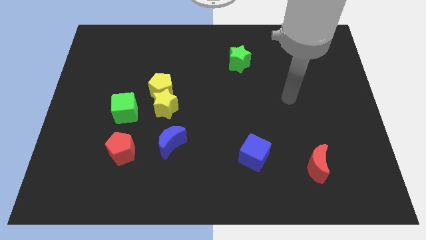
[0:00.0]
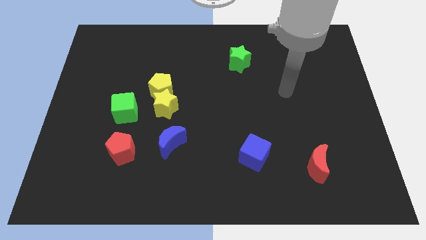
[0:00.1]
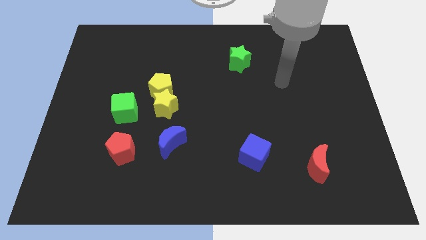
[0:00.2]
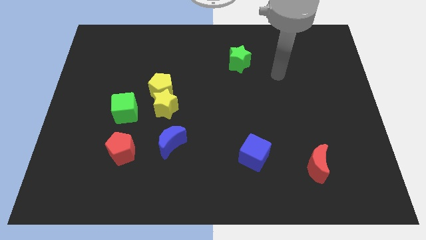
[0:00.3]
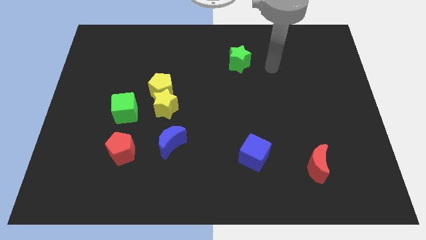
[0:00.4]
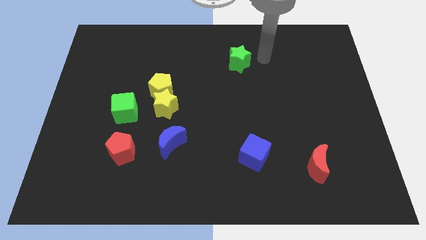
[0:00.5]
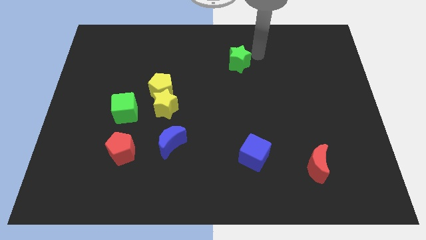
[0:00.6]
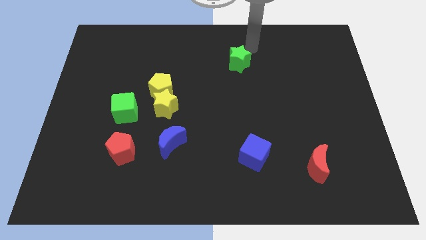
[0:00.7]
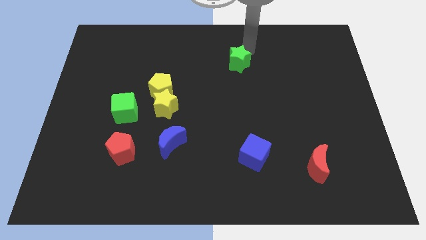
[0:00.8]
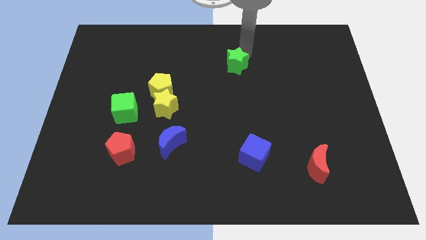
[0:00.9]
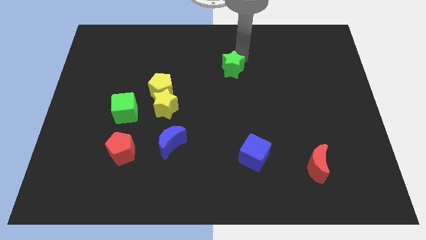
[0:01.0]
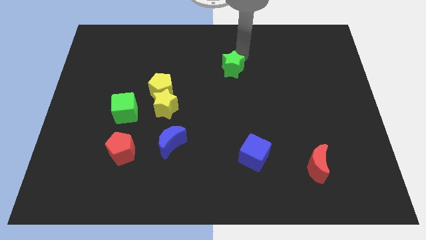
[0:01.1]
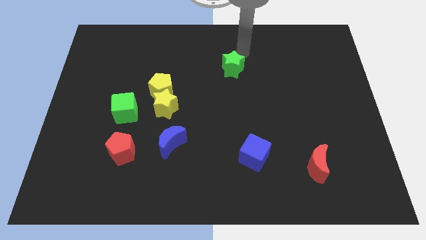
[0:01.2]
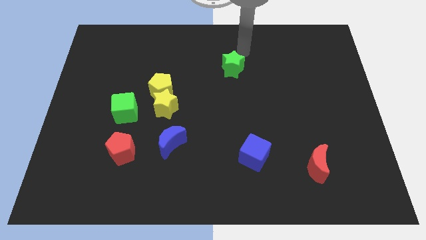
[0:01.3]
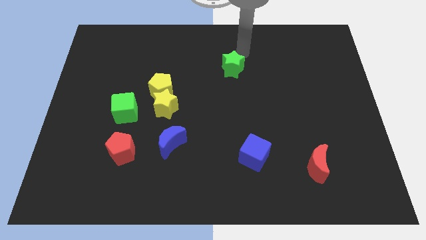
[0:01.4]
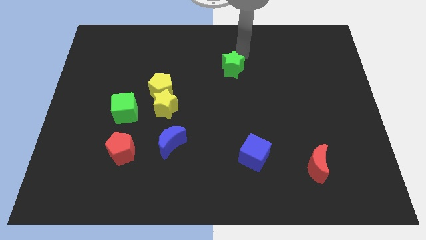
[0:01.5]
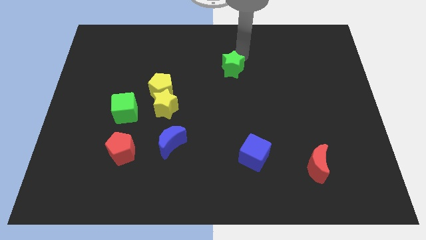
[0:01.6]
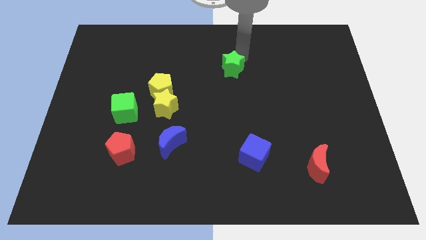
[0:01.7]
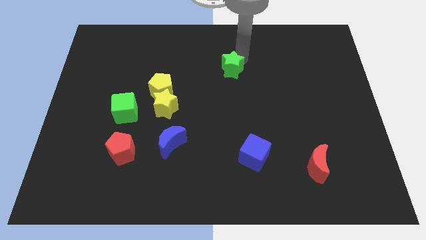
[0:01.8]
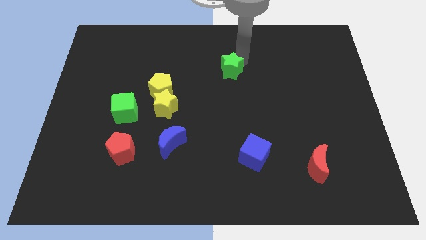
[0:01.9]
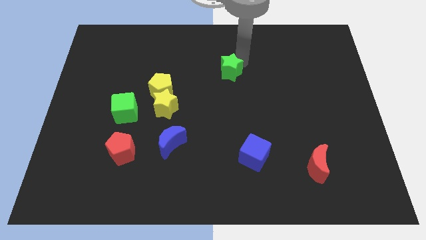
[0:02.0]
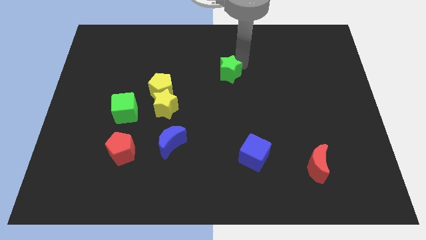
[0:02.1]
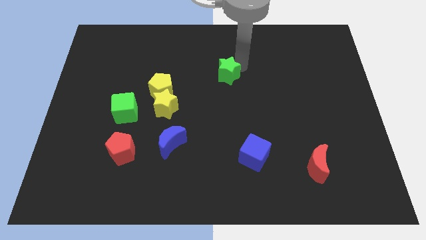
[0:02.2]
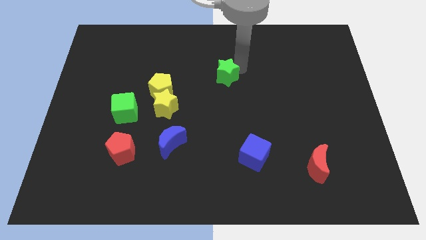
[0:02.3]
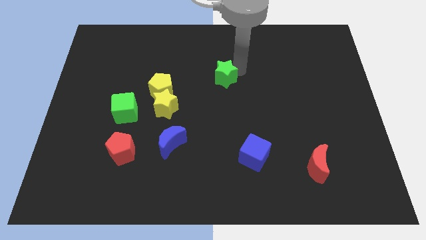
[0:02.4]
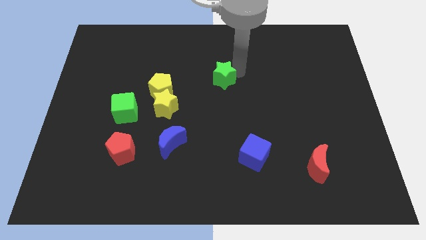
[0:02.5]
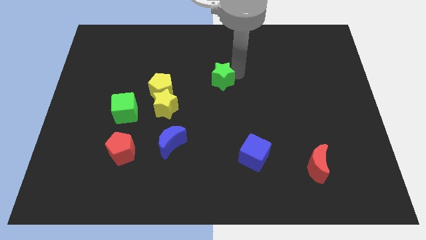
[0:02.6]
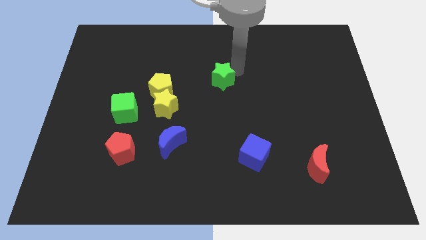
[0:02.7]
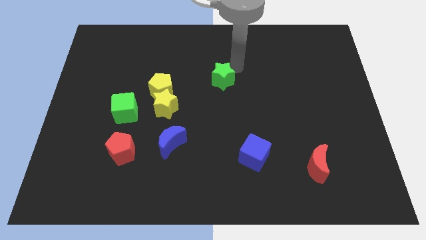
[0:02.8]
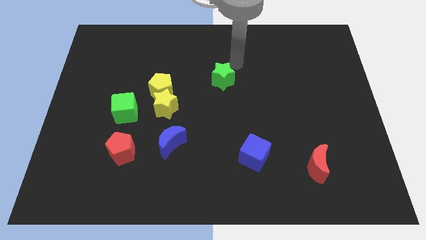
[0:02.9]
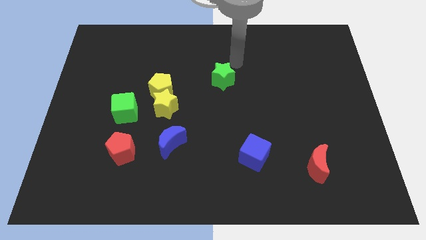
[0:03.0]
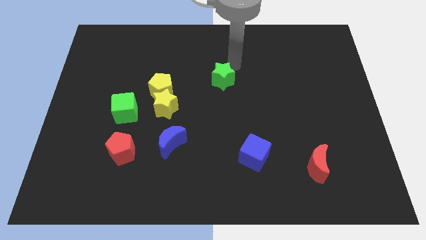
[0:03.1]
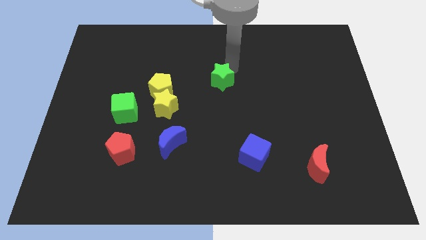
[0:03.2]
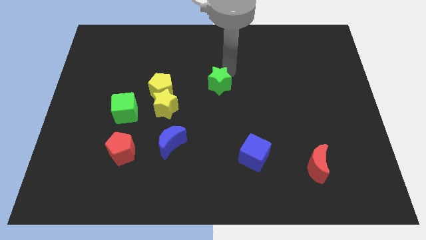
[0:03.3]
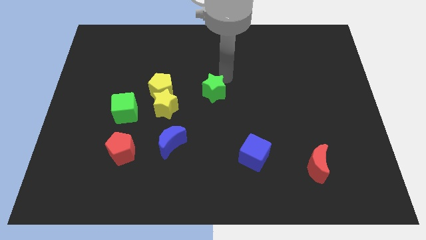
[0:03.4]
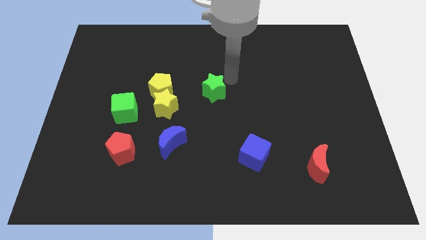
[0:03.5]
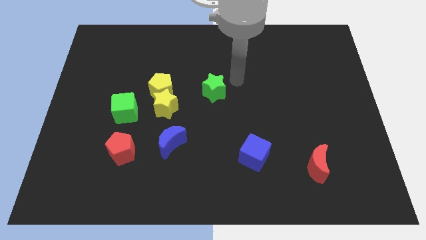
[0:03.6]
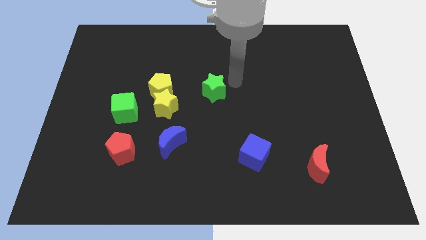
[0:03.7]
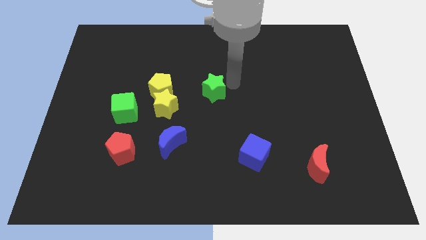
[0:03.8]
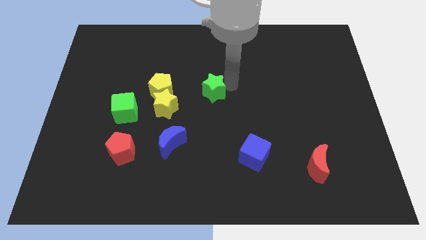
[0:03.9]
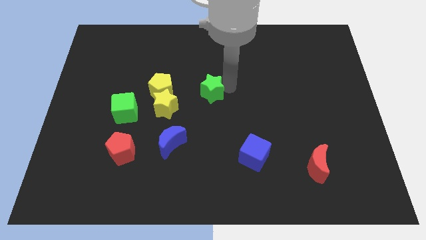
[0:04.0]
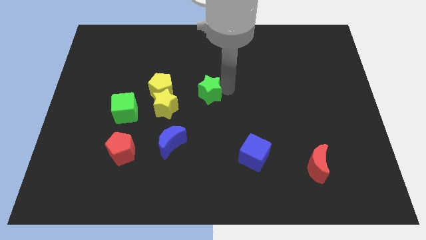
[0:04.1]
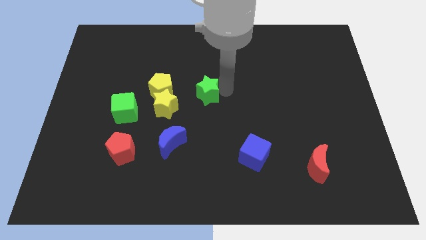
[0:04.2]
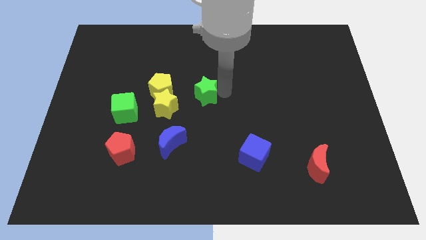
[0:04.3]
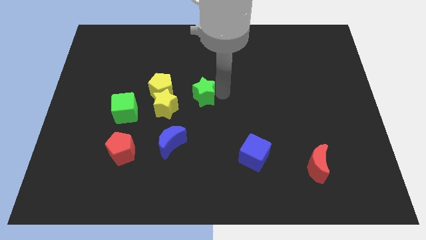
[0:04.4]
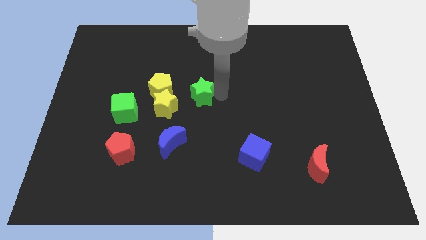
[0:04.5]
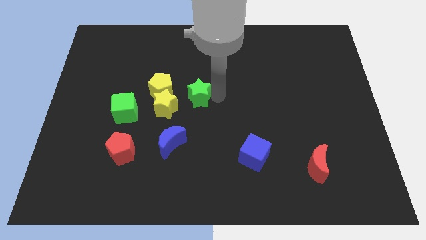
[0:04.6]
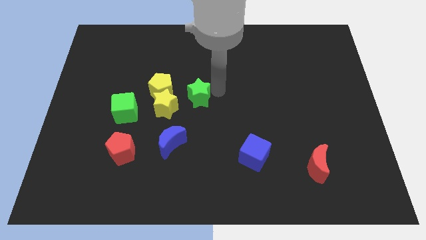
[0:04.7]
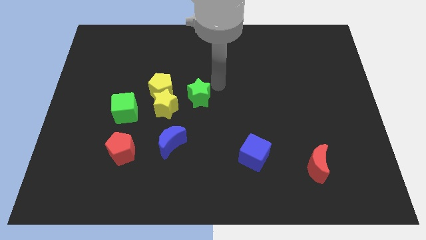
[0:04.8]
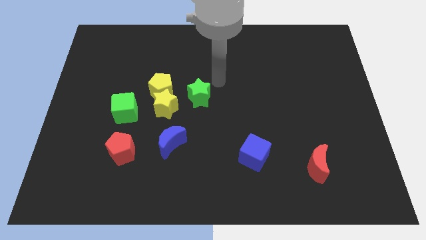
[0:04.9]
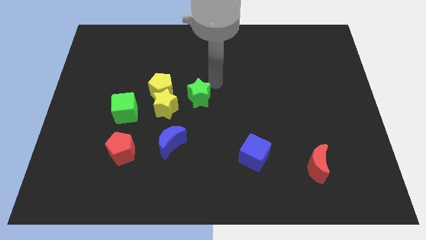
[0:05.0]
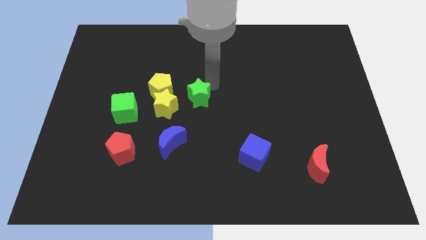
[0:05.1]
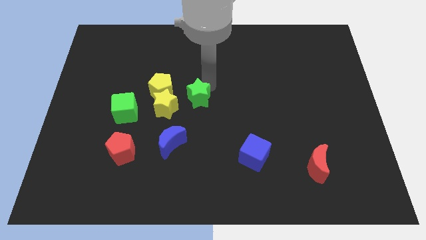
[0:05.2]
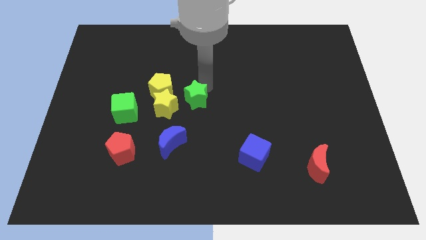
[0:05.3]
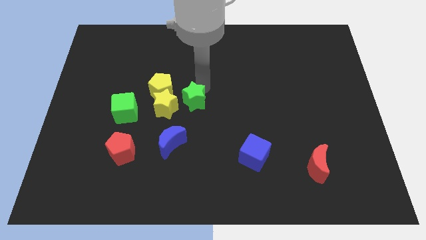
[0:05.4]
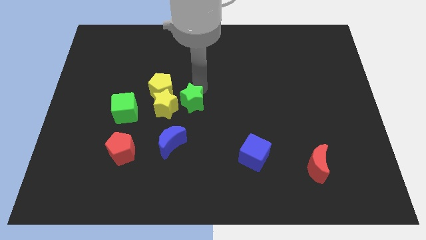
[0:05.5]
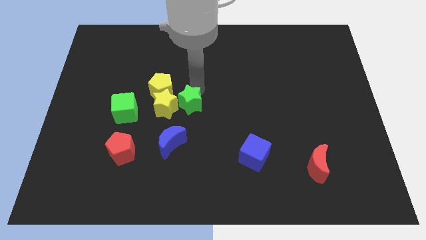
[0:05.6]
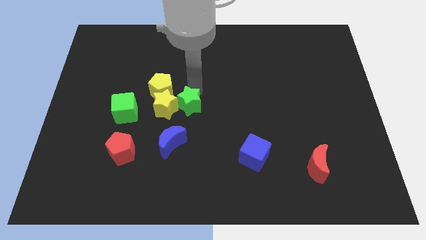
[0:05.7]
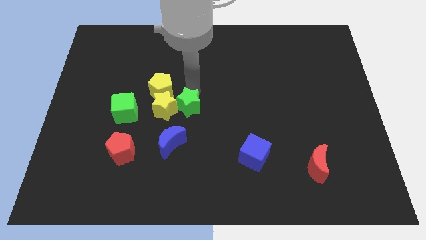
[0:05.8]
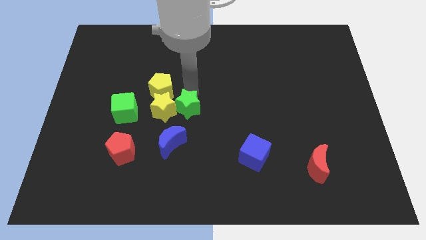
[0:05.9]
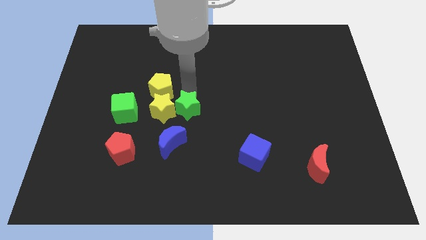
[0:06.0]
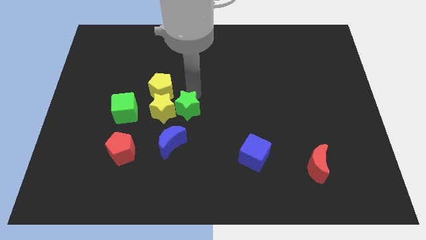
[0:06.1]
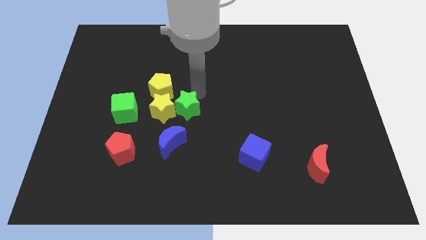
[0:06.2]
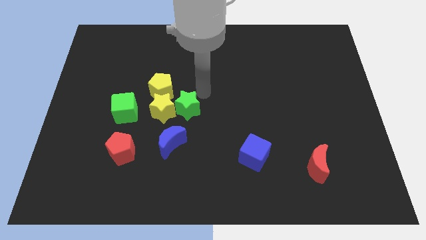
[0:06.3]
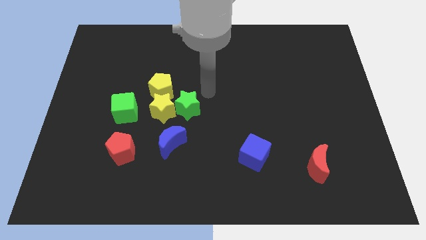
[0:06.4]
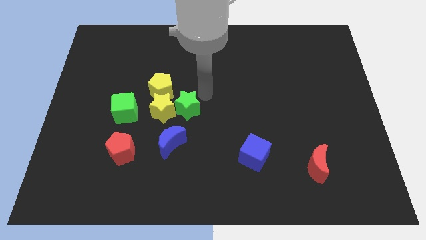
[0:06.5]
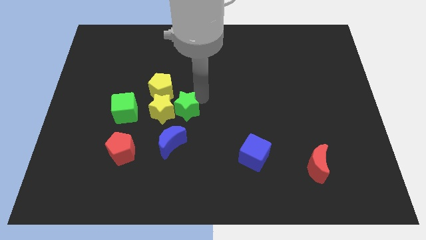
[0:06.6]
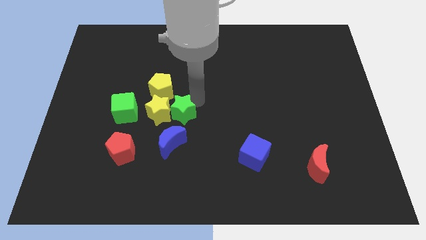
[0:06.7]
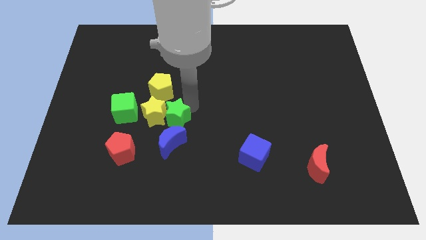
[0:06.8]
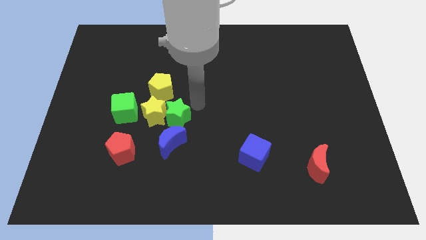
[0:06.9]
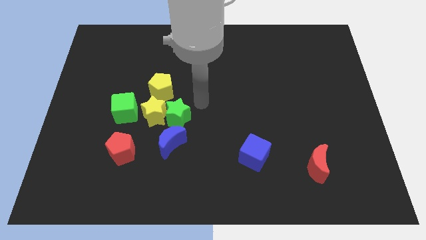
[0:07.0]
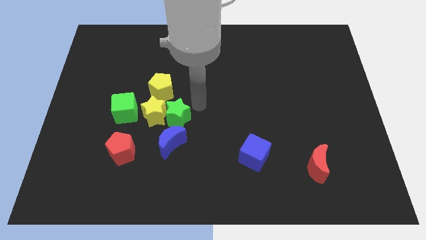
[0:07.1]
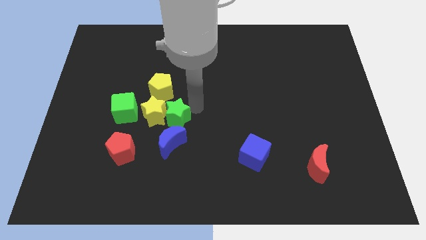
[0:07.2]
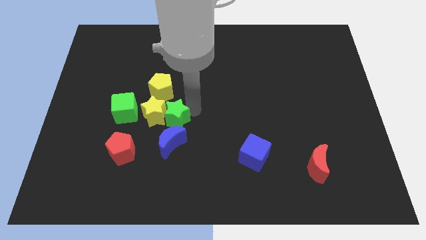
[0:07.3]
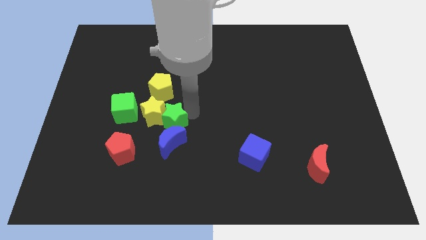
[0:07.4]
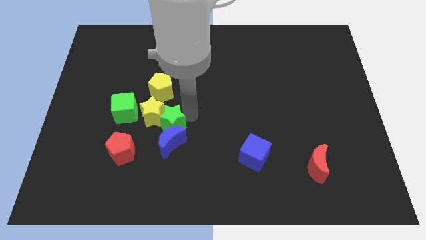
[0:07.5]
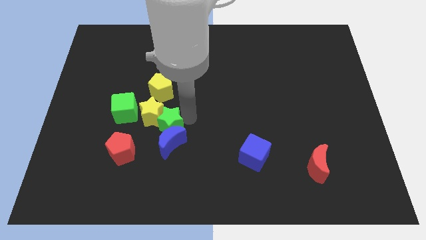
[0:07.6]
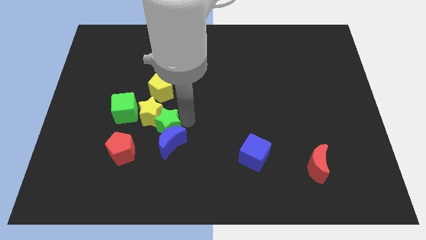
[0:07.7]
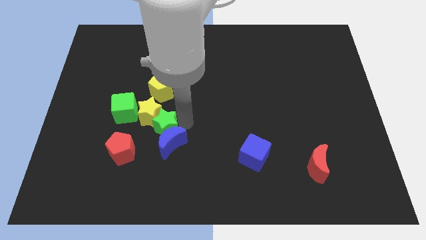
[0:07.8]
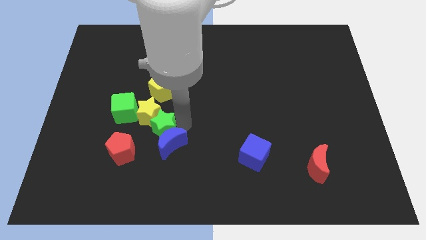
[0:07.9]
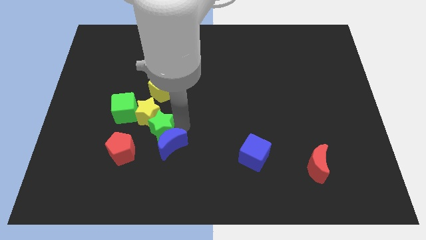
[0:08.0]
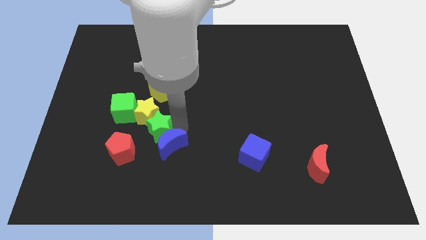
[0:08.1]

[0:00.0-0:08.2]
push the green star just left of the blue moon
